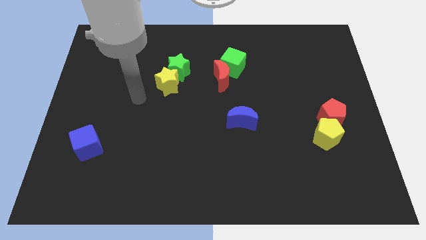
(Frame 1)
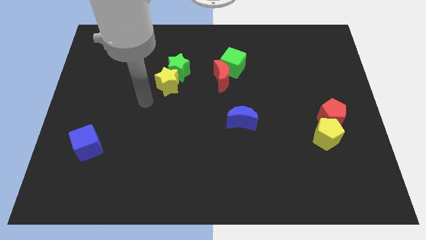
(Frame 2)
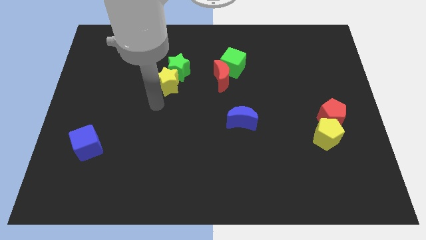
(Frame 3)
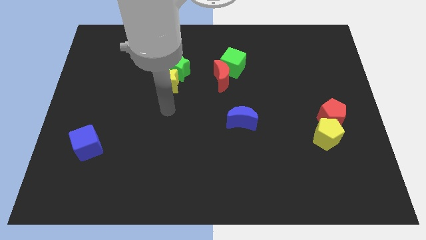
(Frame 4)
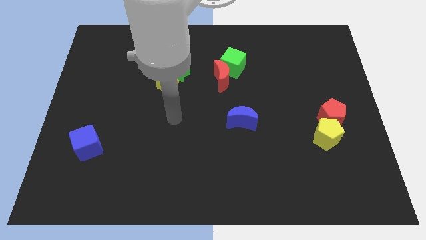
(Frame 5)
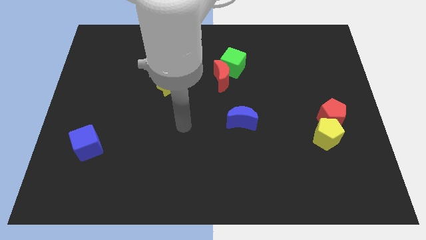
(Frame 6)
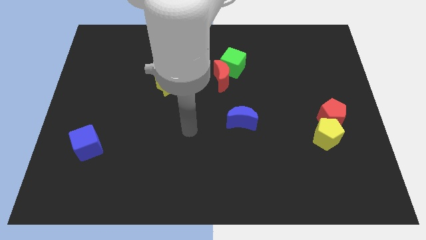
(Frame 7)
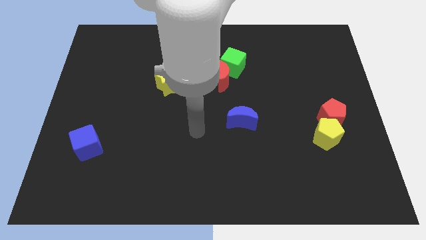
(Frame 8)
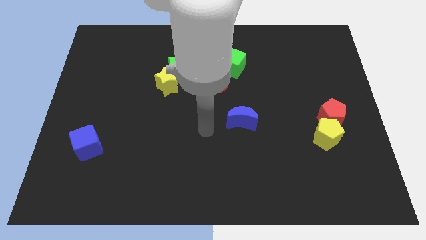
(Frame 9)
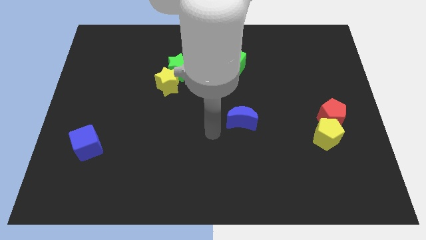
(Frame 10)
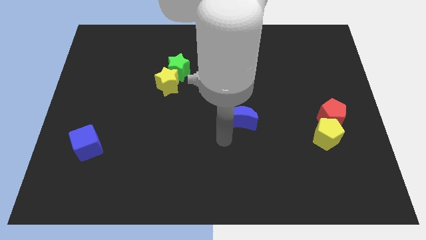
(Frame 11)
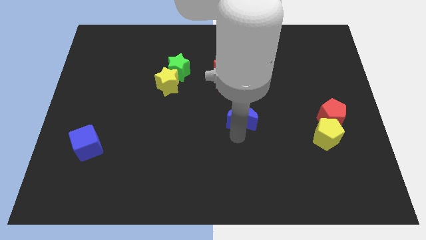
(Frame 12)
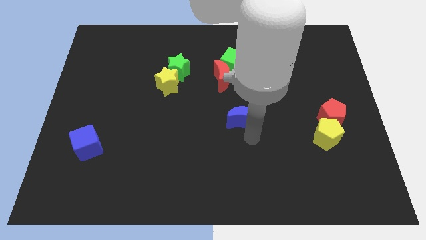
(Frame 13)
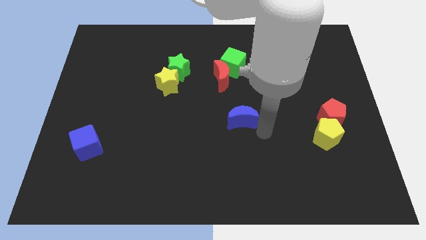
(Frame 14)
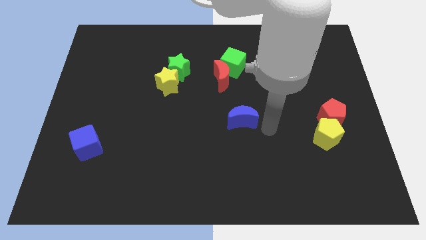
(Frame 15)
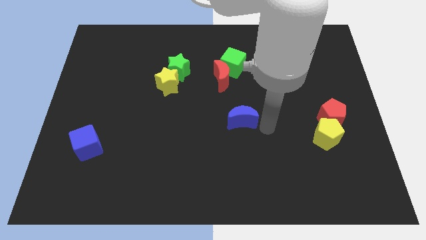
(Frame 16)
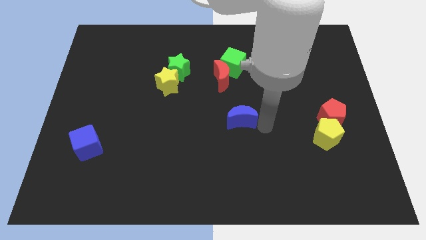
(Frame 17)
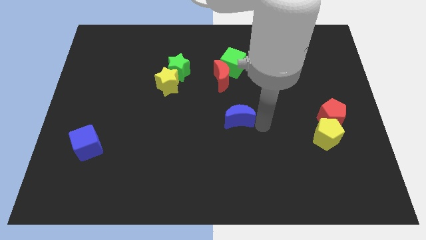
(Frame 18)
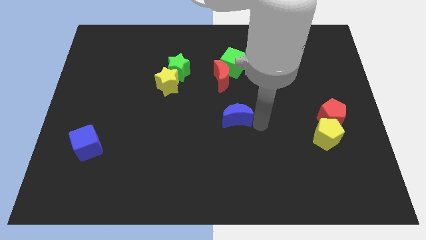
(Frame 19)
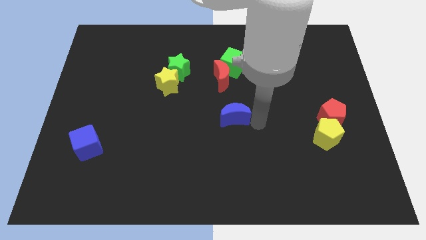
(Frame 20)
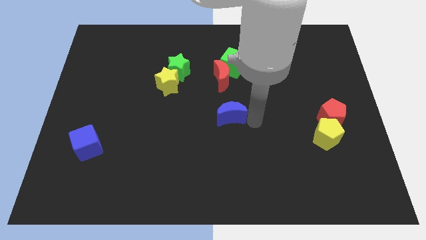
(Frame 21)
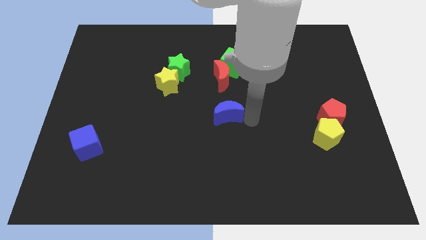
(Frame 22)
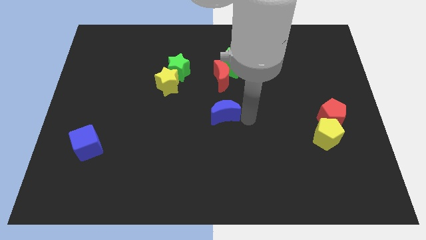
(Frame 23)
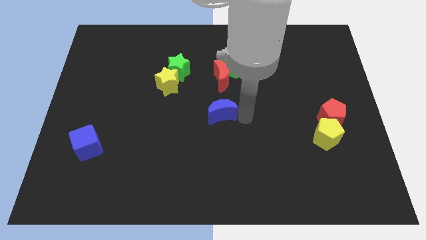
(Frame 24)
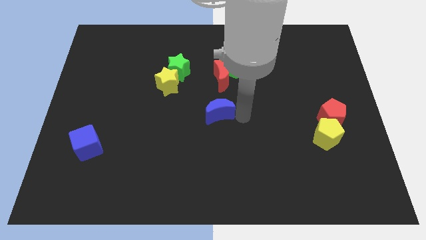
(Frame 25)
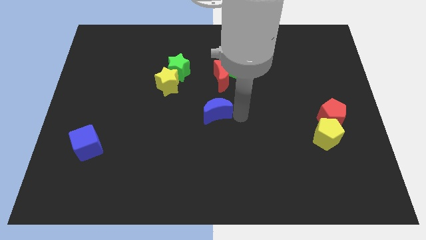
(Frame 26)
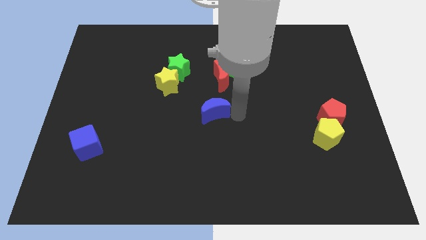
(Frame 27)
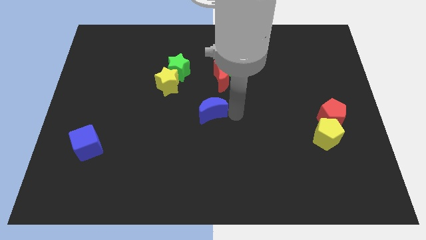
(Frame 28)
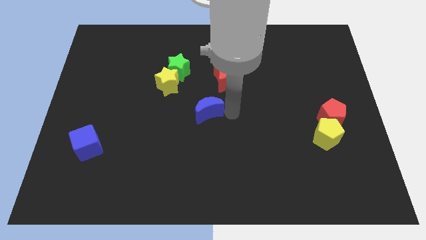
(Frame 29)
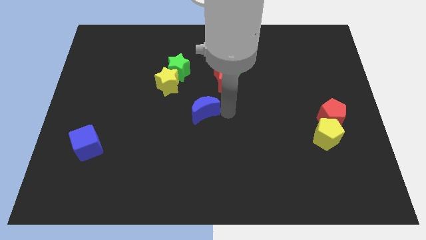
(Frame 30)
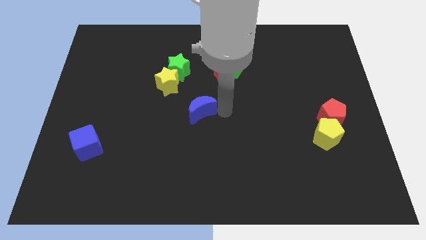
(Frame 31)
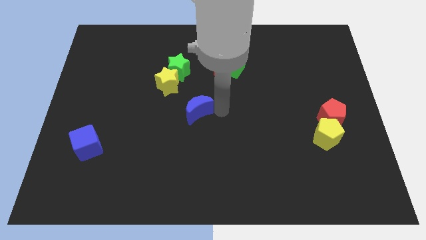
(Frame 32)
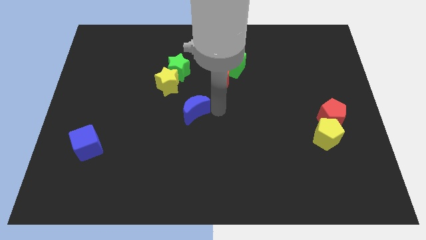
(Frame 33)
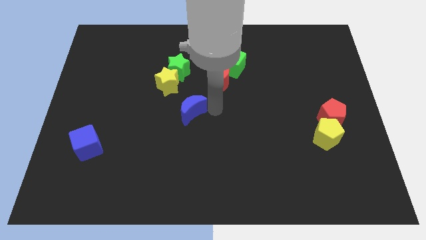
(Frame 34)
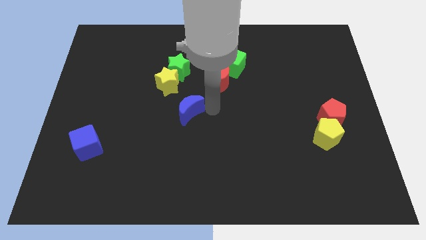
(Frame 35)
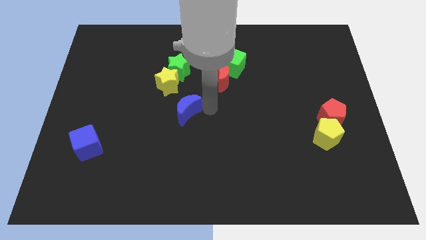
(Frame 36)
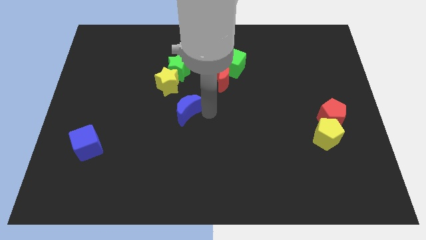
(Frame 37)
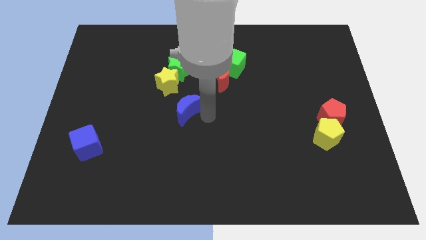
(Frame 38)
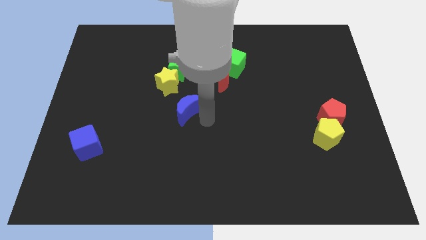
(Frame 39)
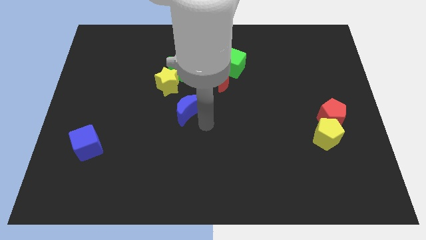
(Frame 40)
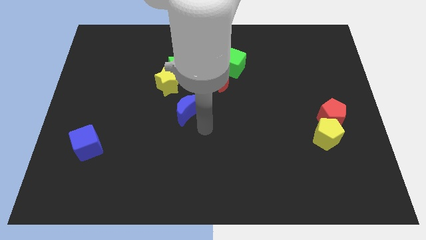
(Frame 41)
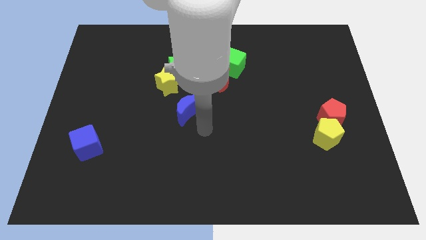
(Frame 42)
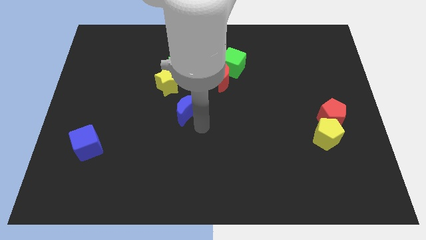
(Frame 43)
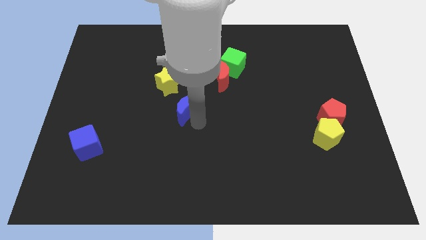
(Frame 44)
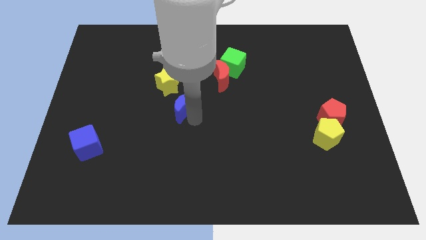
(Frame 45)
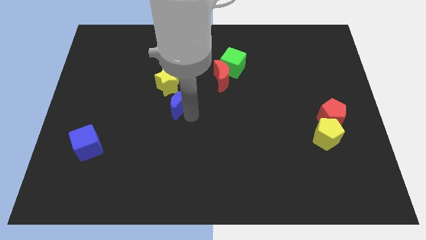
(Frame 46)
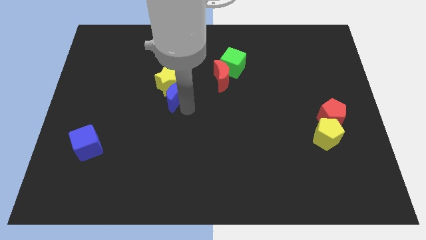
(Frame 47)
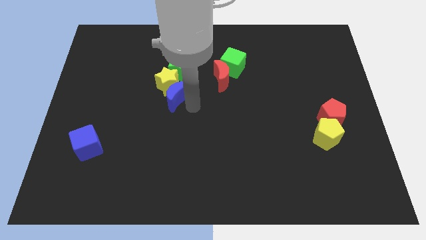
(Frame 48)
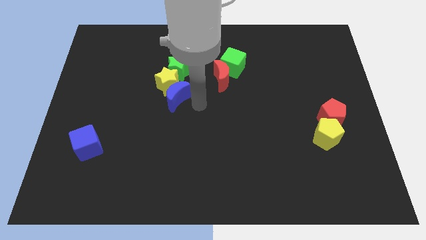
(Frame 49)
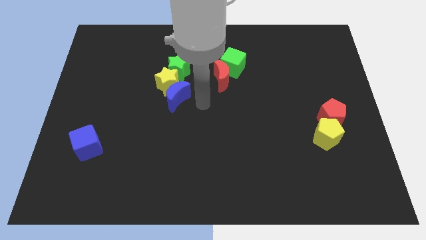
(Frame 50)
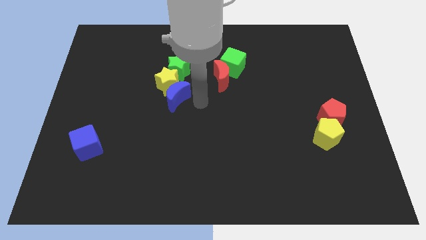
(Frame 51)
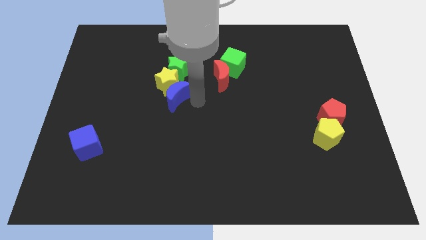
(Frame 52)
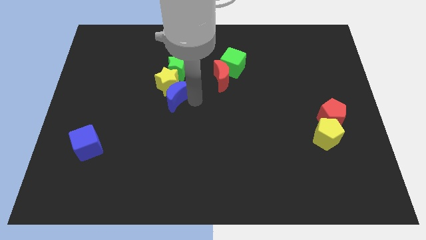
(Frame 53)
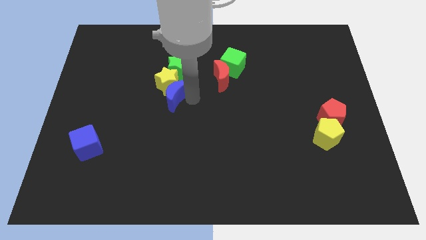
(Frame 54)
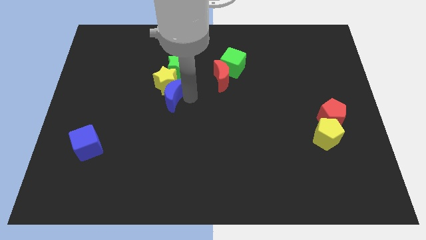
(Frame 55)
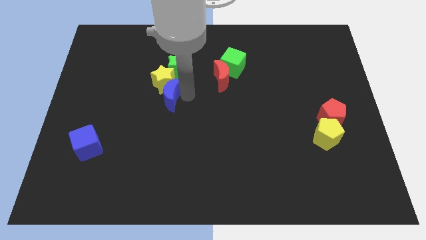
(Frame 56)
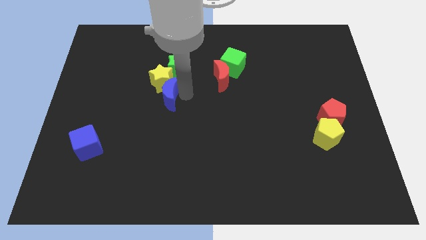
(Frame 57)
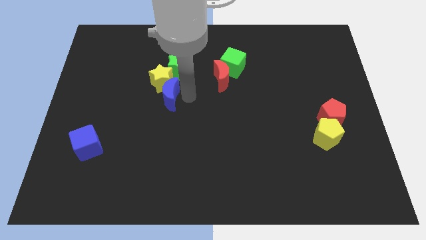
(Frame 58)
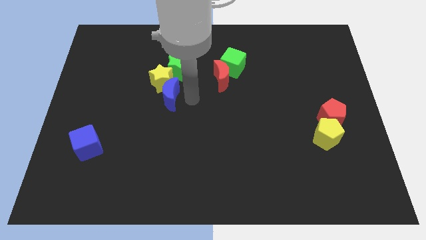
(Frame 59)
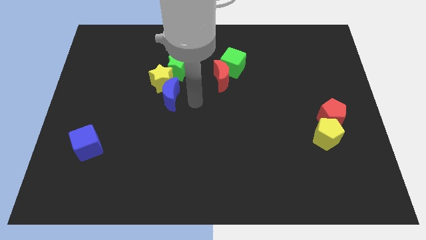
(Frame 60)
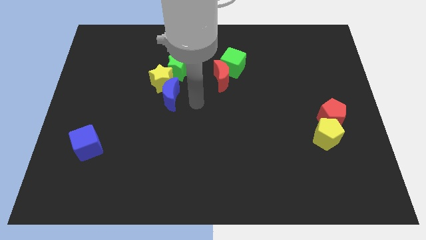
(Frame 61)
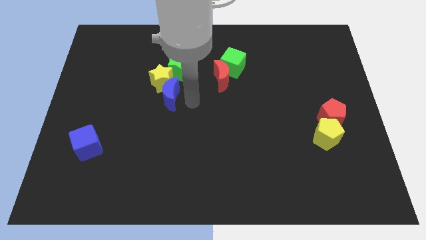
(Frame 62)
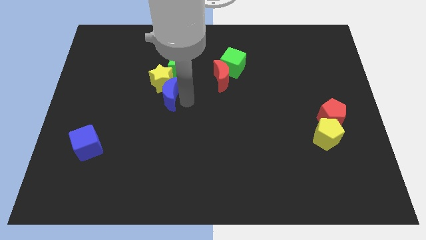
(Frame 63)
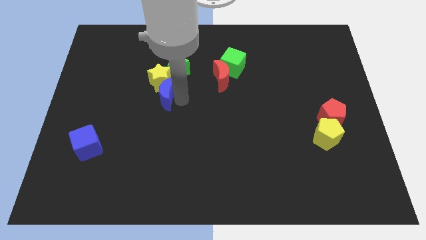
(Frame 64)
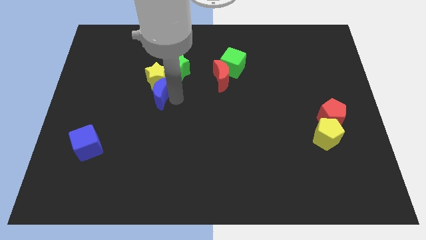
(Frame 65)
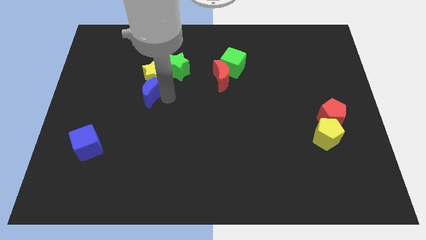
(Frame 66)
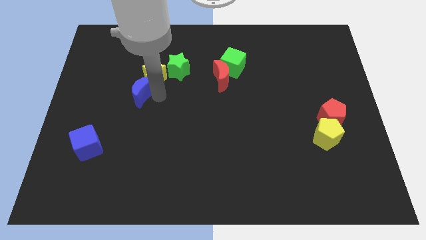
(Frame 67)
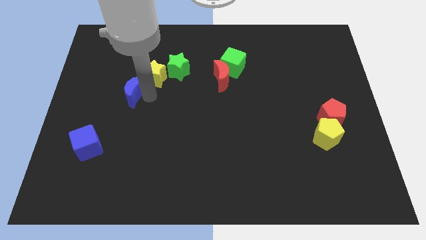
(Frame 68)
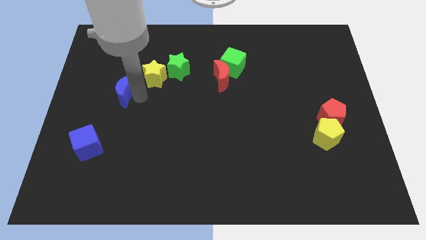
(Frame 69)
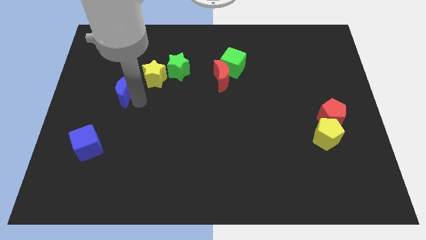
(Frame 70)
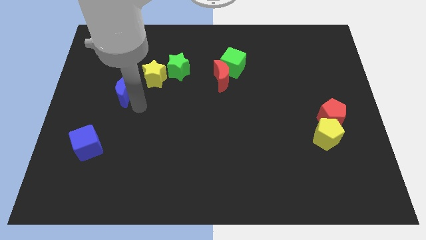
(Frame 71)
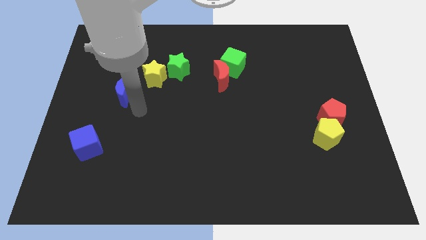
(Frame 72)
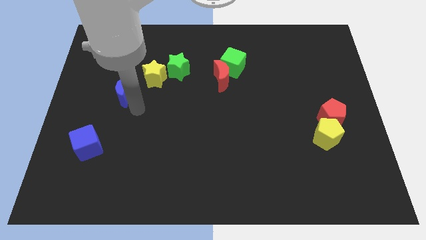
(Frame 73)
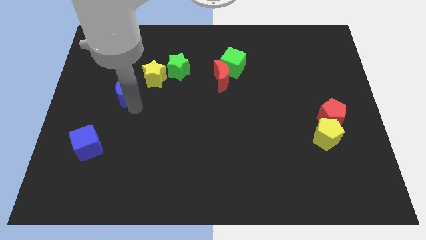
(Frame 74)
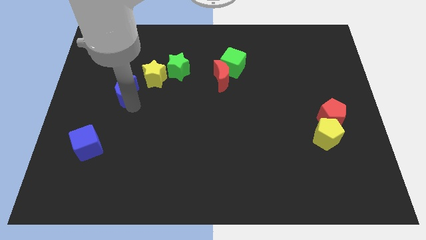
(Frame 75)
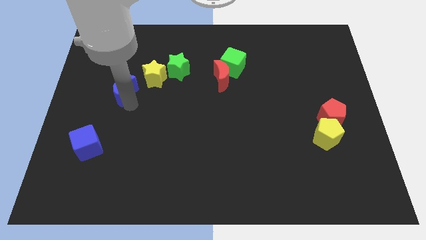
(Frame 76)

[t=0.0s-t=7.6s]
move the blue moon to the left of the yellow star

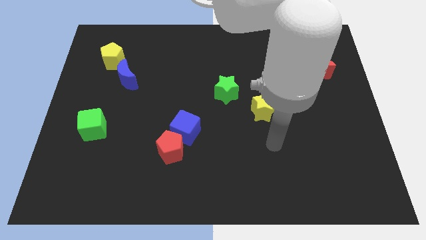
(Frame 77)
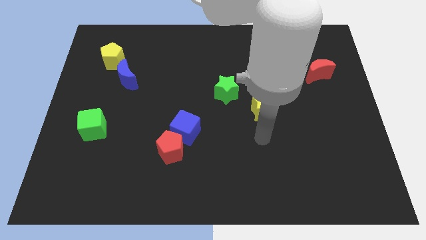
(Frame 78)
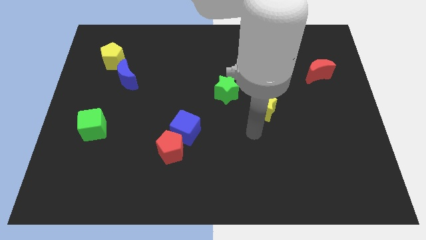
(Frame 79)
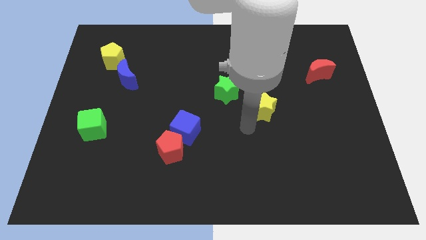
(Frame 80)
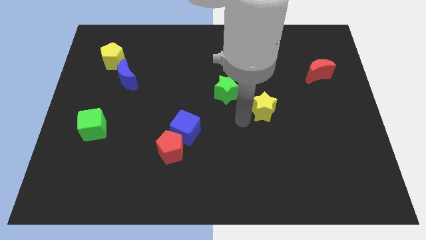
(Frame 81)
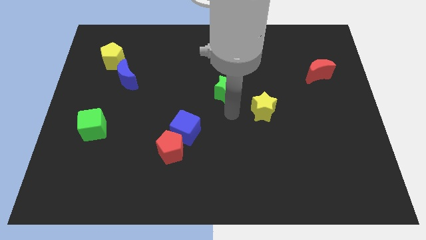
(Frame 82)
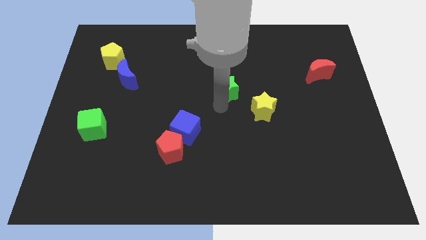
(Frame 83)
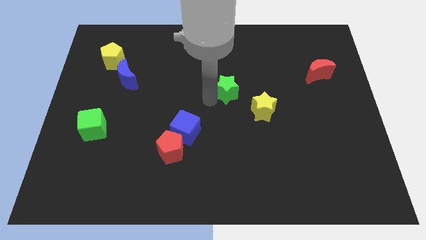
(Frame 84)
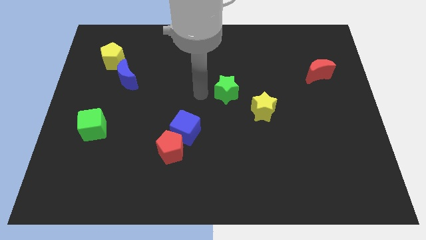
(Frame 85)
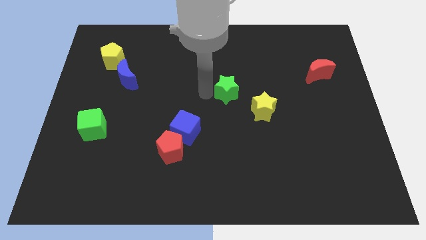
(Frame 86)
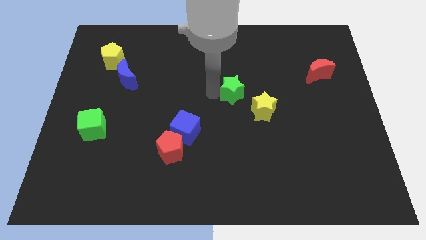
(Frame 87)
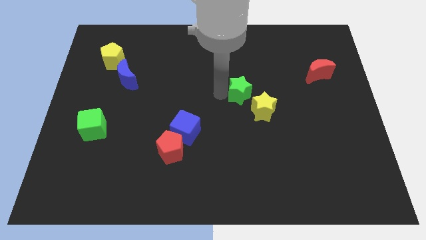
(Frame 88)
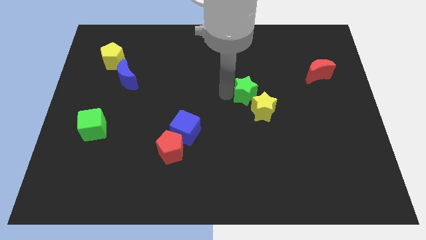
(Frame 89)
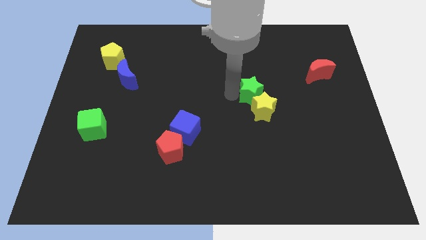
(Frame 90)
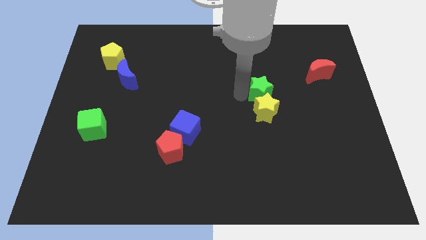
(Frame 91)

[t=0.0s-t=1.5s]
slide the green star to the top right of the yellow star
